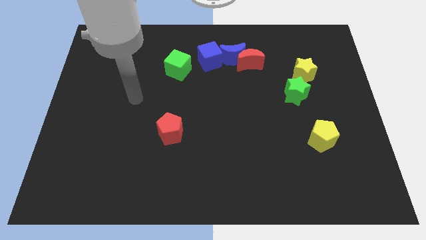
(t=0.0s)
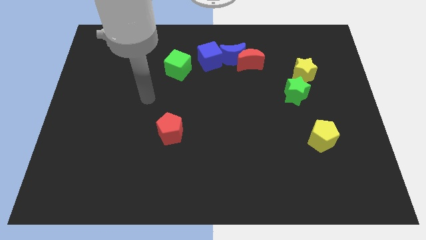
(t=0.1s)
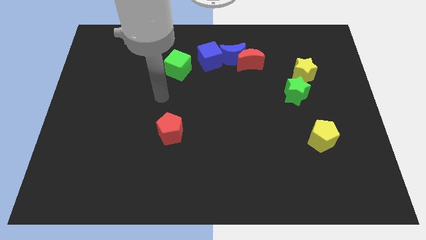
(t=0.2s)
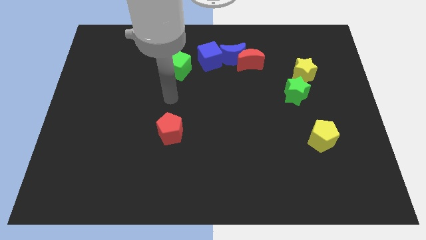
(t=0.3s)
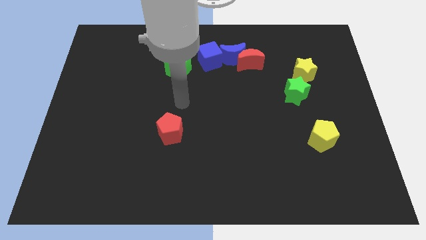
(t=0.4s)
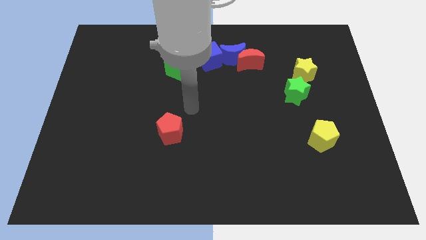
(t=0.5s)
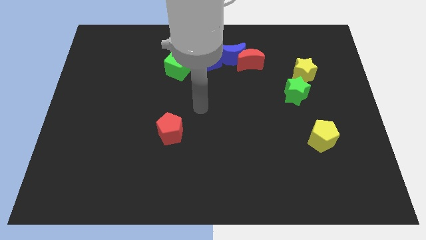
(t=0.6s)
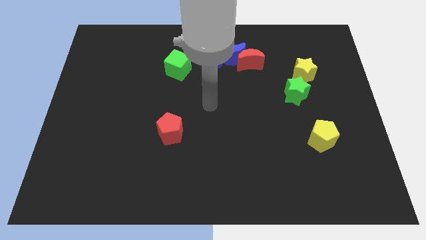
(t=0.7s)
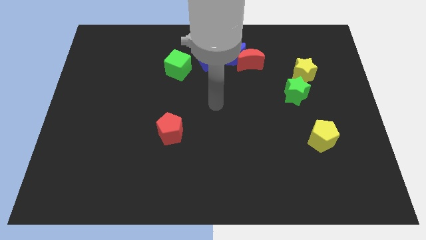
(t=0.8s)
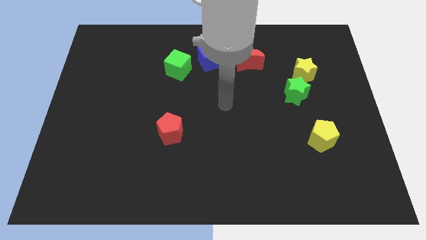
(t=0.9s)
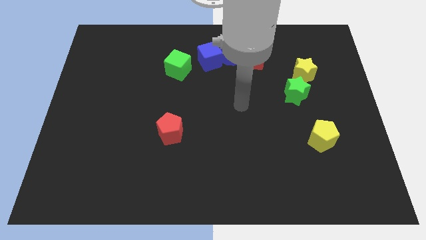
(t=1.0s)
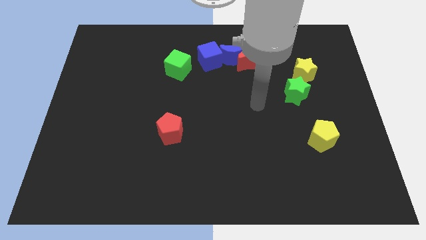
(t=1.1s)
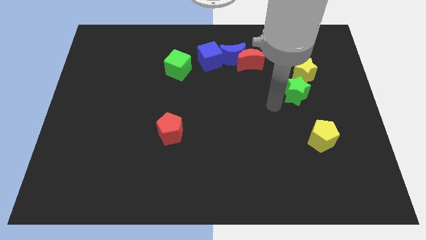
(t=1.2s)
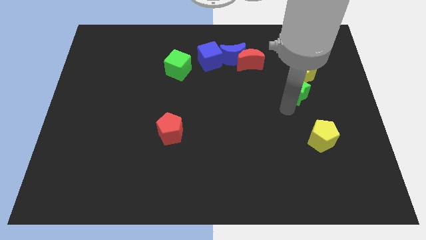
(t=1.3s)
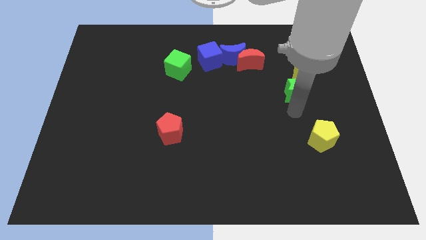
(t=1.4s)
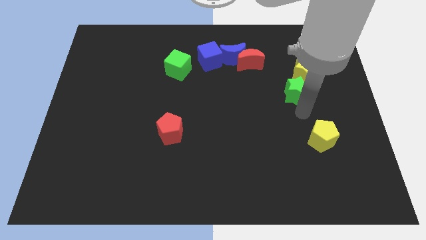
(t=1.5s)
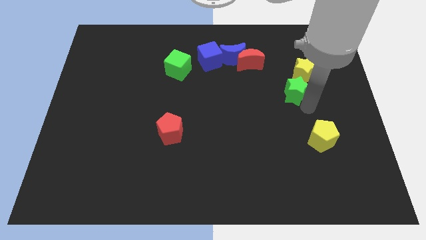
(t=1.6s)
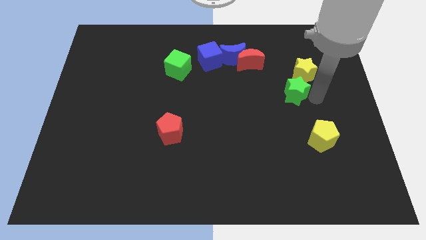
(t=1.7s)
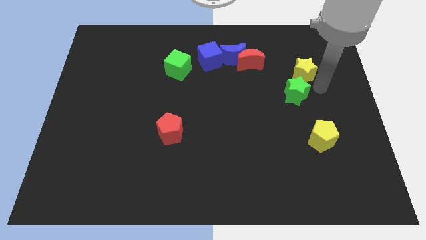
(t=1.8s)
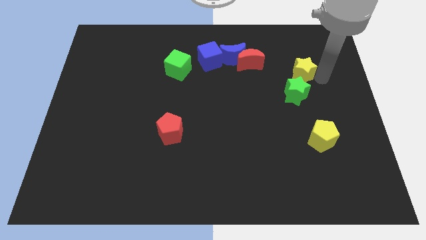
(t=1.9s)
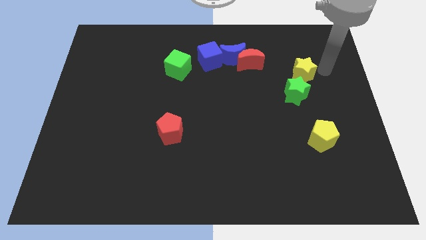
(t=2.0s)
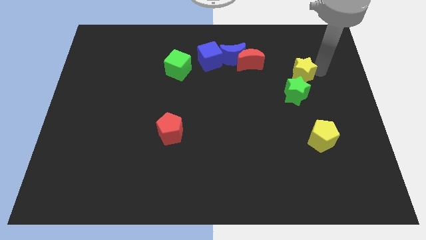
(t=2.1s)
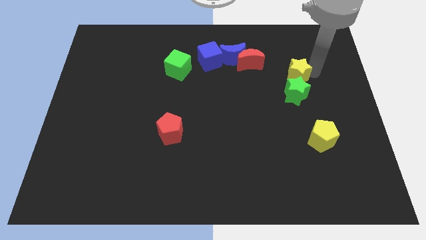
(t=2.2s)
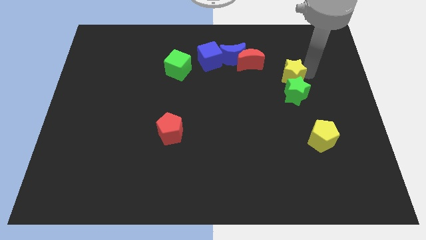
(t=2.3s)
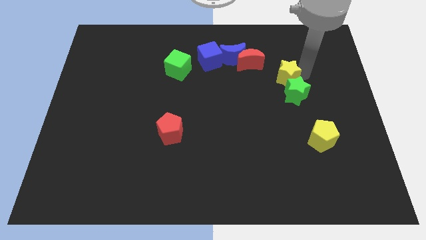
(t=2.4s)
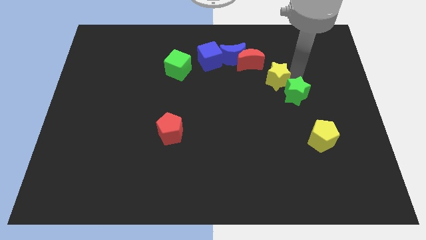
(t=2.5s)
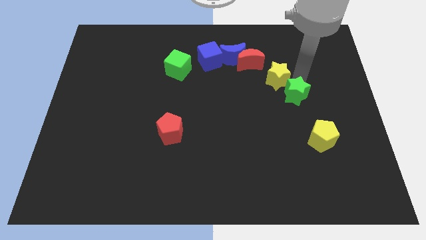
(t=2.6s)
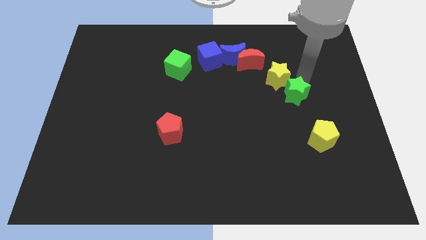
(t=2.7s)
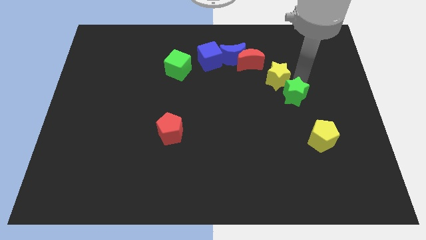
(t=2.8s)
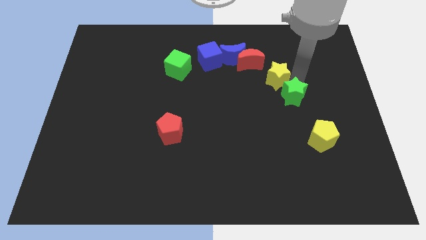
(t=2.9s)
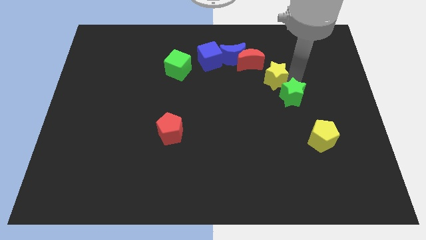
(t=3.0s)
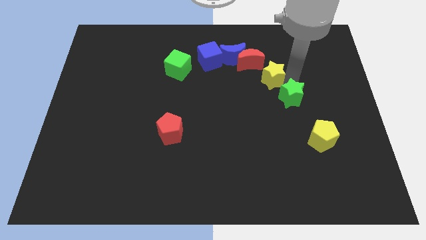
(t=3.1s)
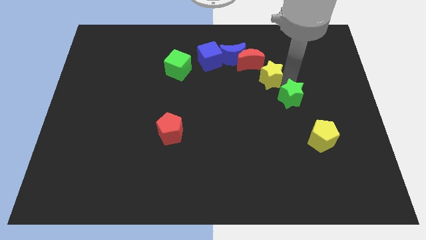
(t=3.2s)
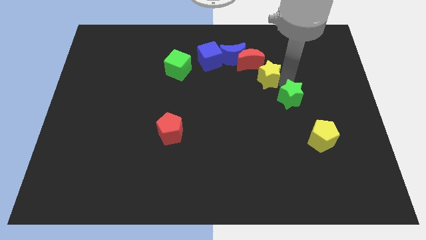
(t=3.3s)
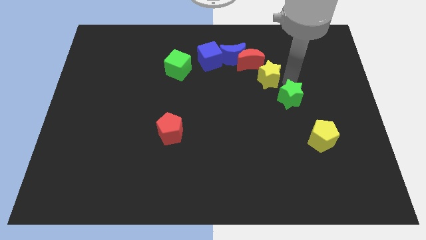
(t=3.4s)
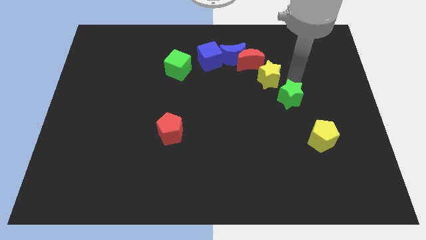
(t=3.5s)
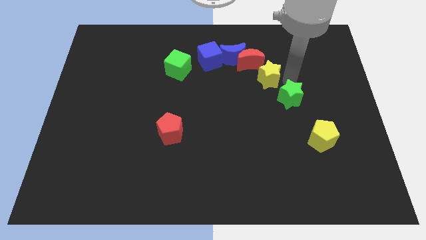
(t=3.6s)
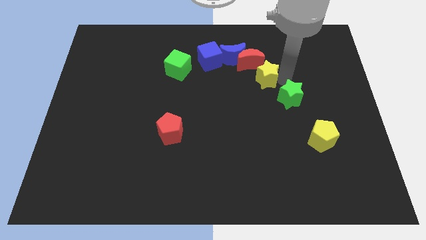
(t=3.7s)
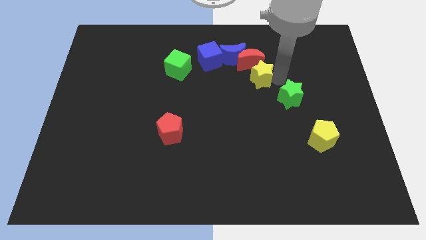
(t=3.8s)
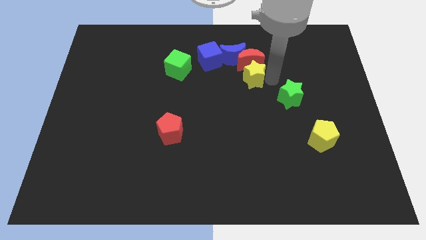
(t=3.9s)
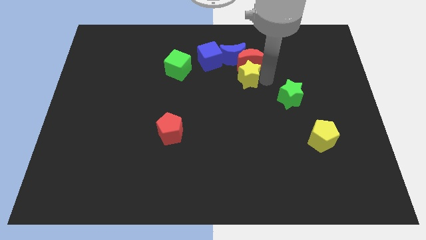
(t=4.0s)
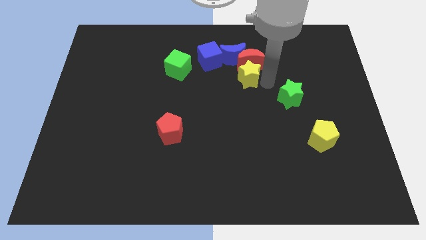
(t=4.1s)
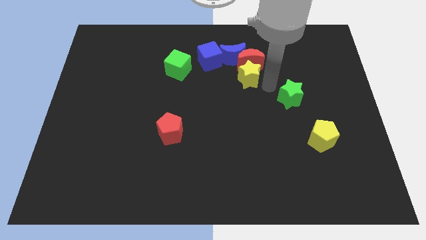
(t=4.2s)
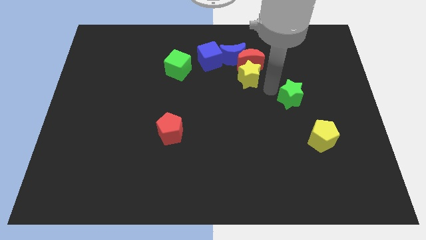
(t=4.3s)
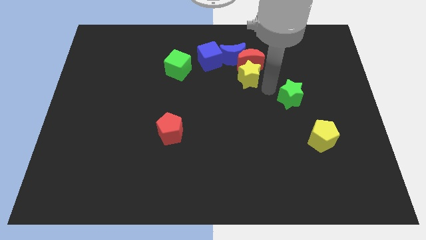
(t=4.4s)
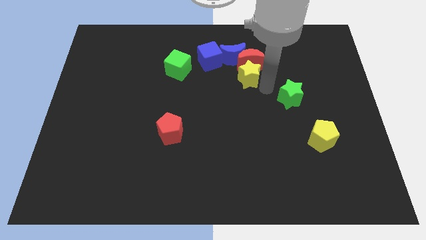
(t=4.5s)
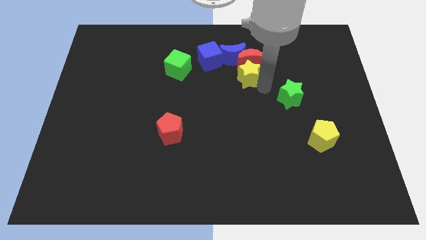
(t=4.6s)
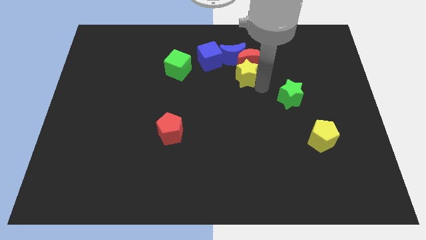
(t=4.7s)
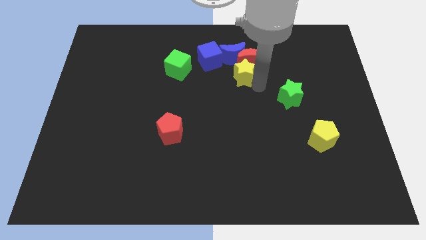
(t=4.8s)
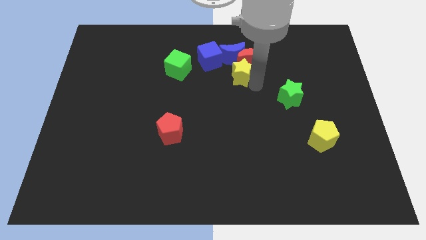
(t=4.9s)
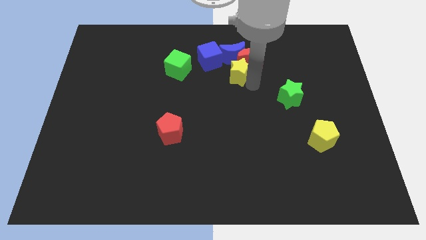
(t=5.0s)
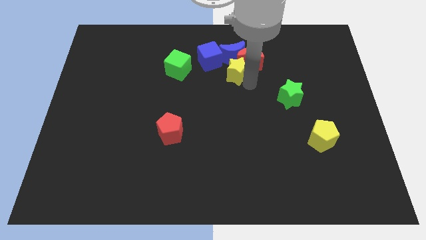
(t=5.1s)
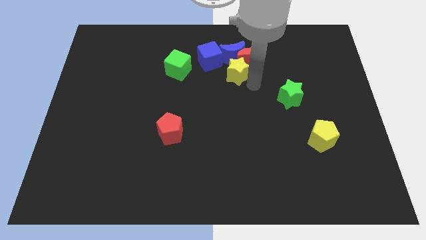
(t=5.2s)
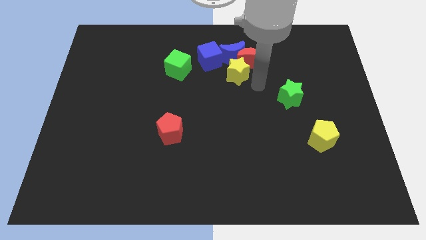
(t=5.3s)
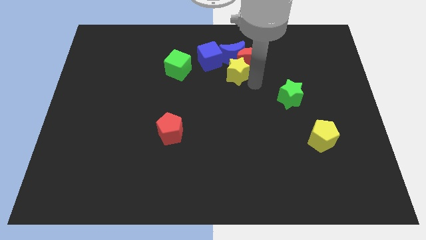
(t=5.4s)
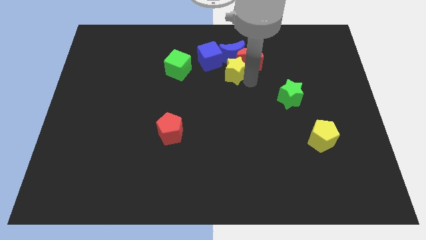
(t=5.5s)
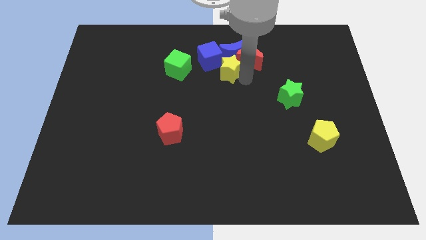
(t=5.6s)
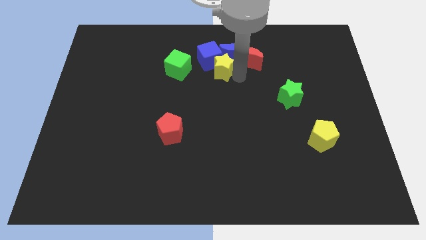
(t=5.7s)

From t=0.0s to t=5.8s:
slide the yellow star close to the blue cube

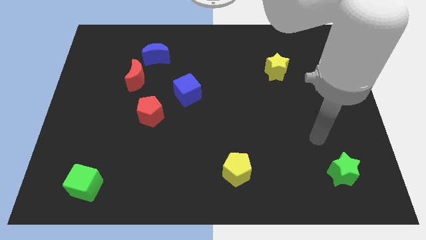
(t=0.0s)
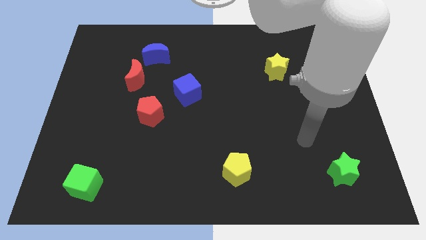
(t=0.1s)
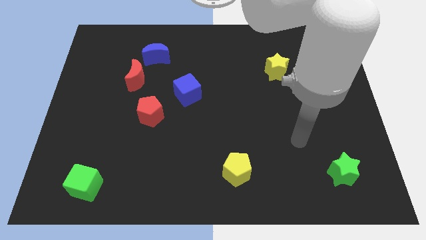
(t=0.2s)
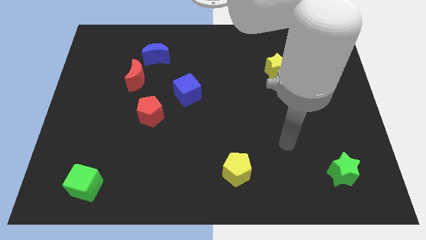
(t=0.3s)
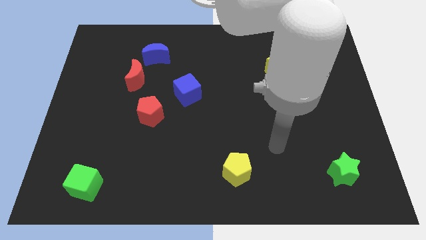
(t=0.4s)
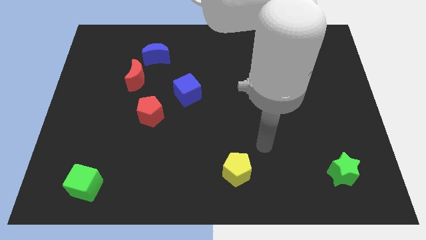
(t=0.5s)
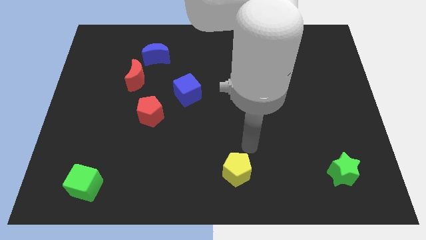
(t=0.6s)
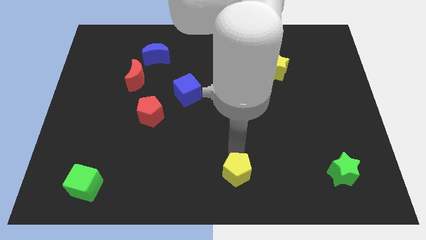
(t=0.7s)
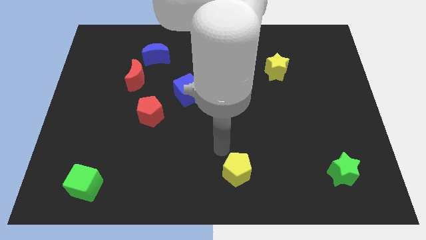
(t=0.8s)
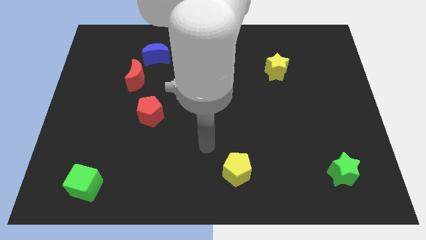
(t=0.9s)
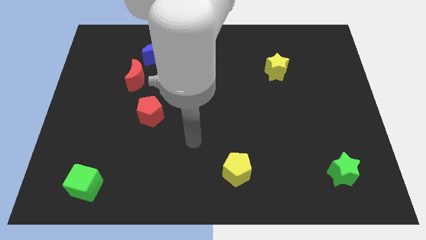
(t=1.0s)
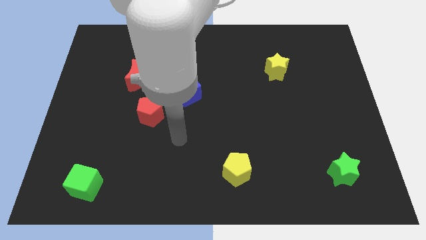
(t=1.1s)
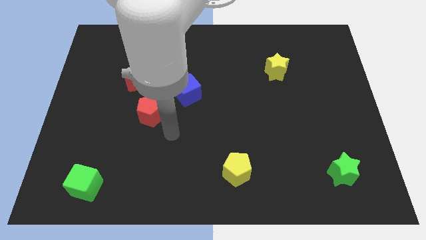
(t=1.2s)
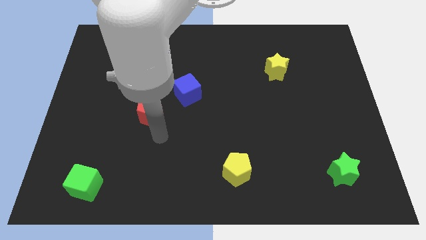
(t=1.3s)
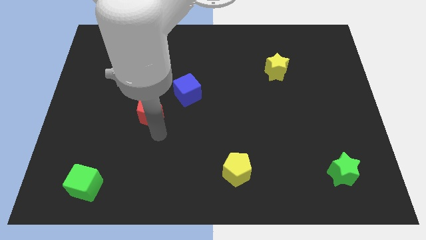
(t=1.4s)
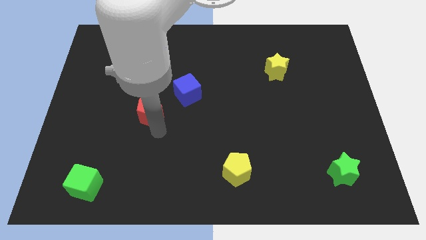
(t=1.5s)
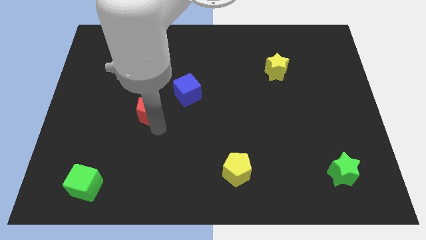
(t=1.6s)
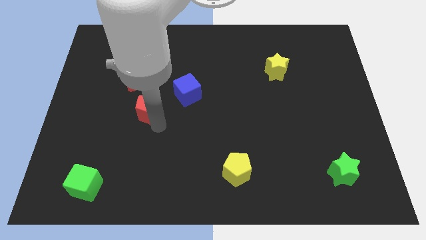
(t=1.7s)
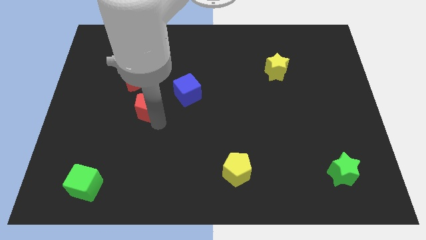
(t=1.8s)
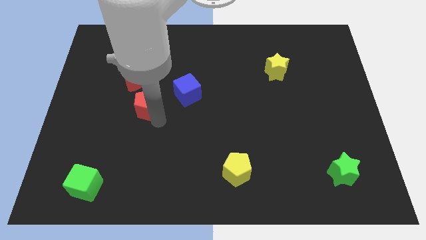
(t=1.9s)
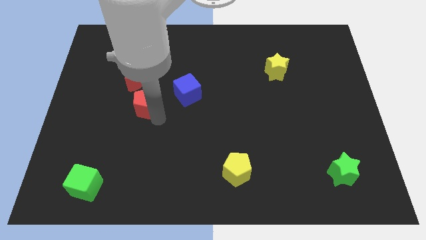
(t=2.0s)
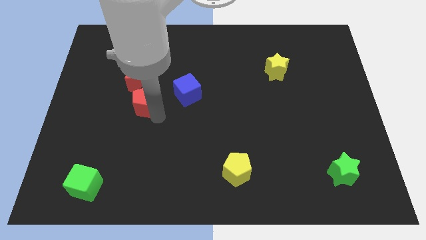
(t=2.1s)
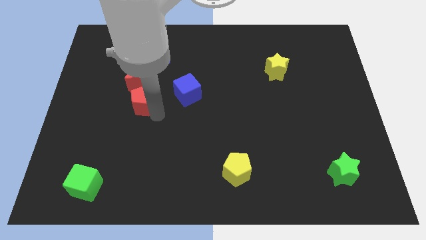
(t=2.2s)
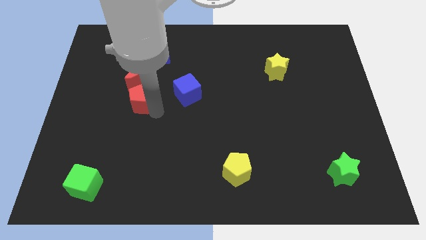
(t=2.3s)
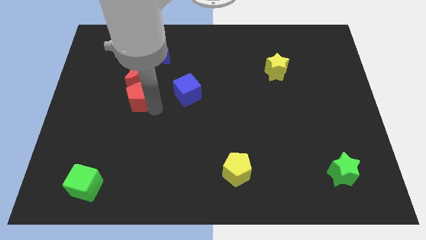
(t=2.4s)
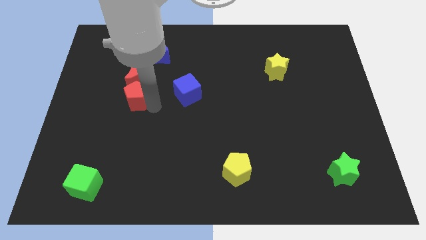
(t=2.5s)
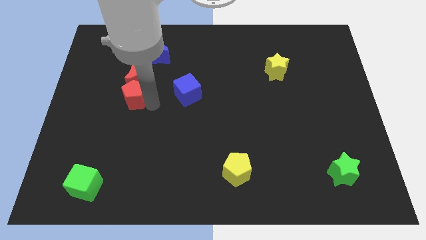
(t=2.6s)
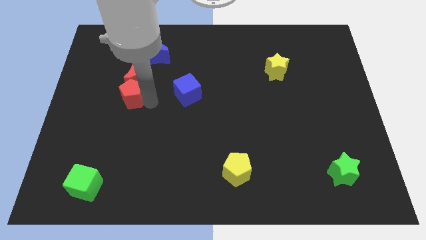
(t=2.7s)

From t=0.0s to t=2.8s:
move the red pentagon next to the red moon
